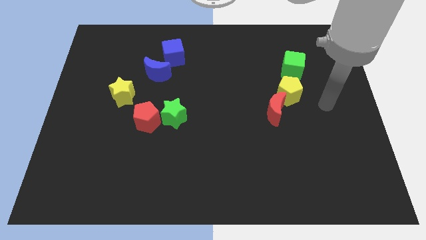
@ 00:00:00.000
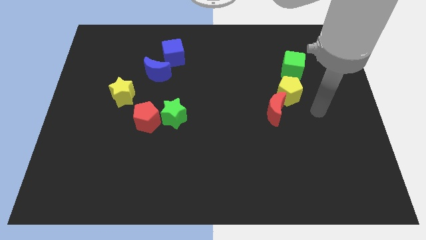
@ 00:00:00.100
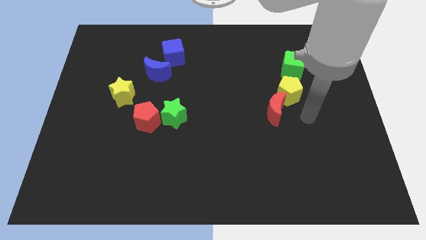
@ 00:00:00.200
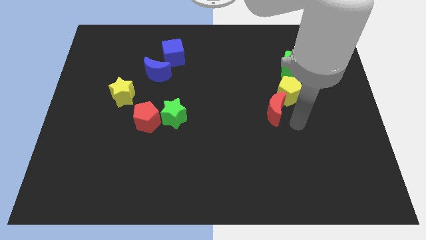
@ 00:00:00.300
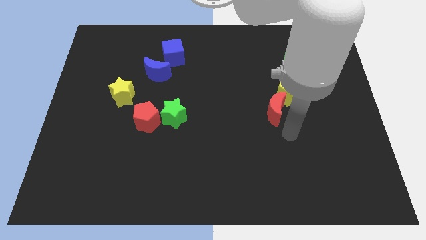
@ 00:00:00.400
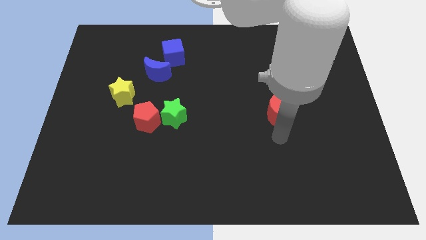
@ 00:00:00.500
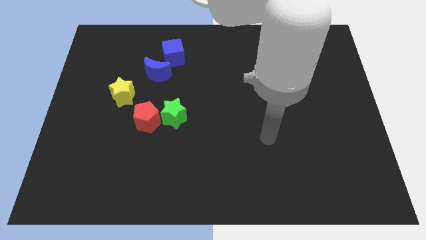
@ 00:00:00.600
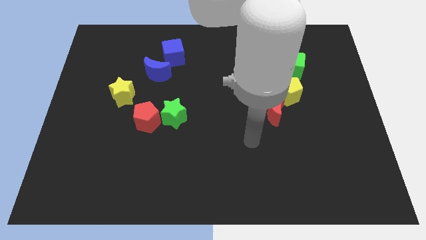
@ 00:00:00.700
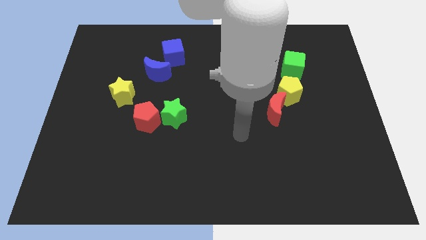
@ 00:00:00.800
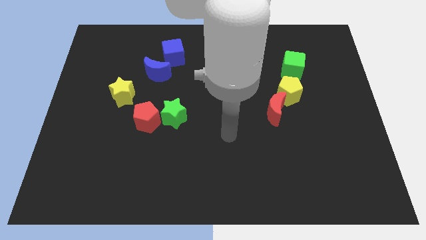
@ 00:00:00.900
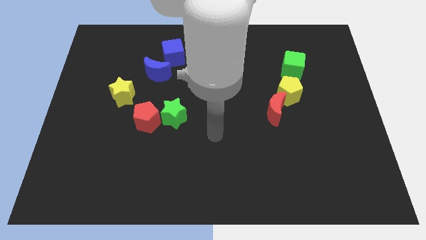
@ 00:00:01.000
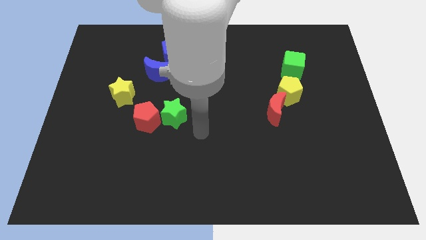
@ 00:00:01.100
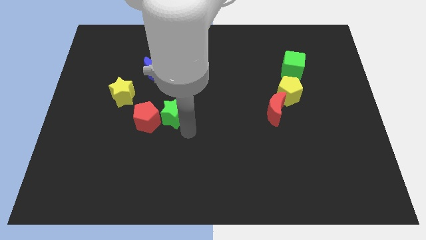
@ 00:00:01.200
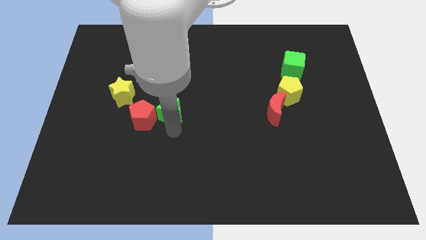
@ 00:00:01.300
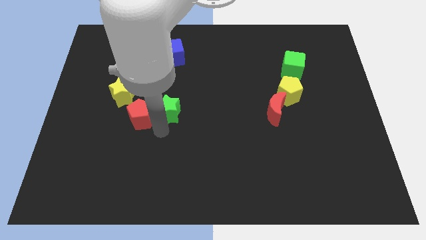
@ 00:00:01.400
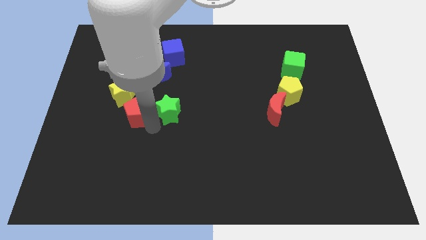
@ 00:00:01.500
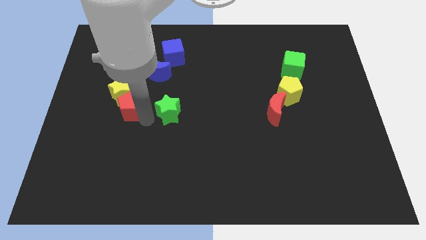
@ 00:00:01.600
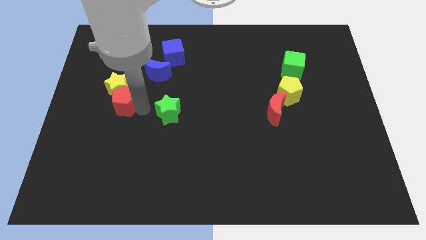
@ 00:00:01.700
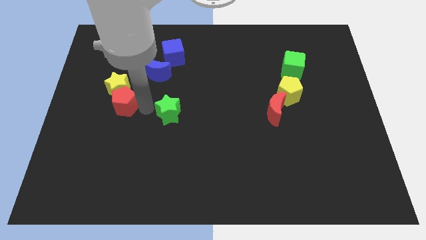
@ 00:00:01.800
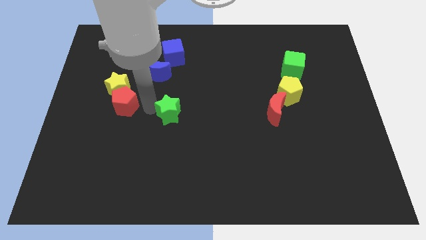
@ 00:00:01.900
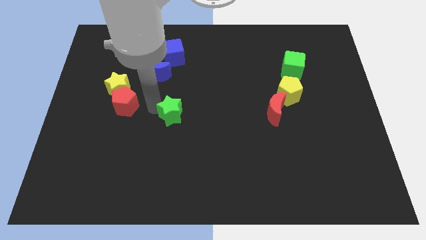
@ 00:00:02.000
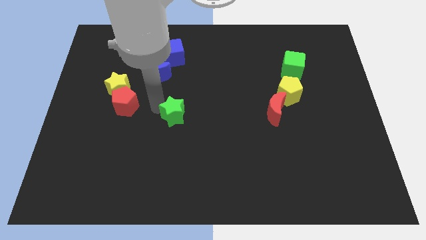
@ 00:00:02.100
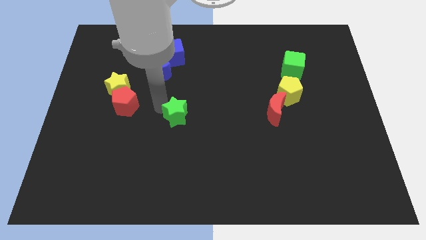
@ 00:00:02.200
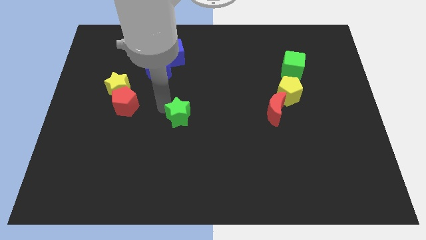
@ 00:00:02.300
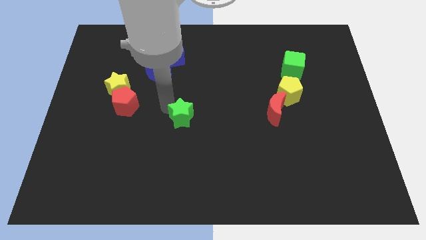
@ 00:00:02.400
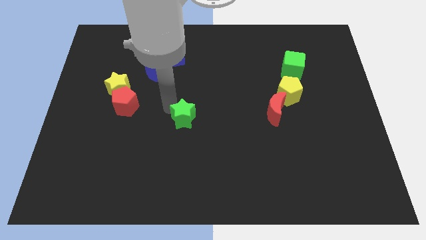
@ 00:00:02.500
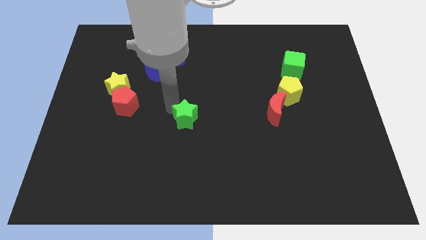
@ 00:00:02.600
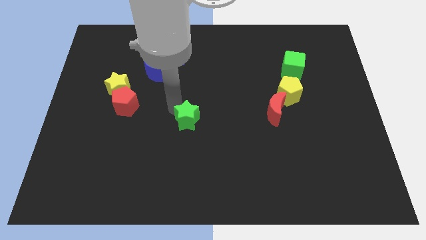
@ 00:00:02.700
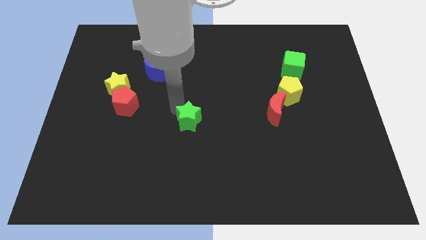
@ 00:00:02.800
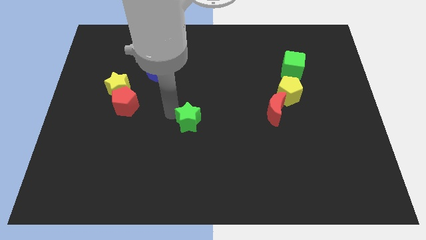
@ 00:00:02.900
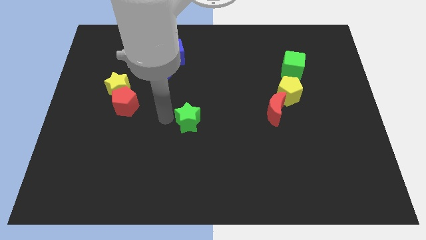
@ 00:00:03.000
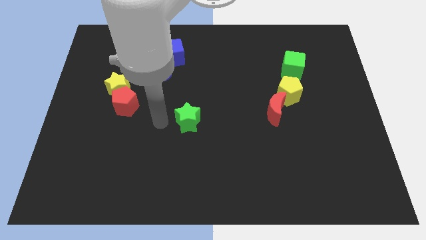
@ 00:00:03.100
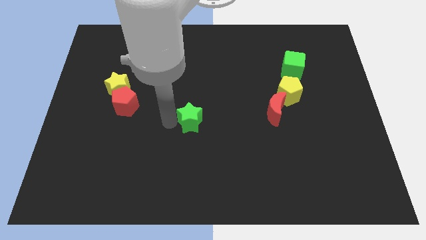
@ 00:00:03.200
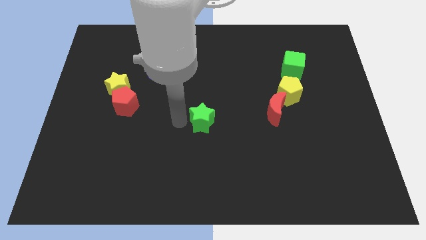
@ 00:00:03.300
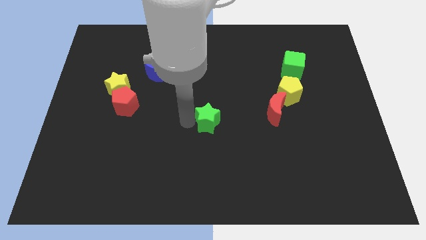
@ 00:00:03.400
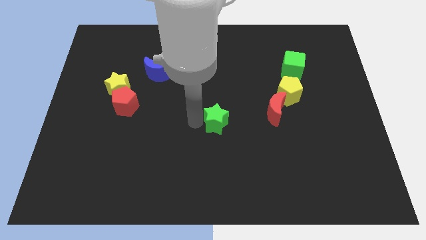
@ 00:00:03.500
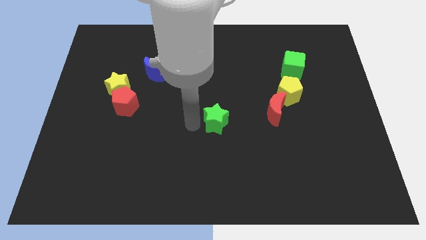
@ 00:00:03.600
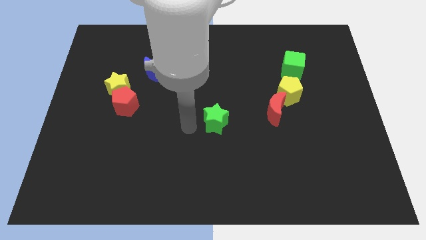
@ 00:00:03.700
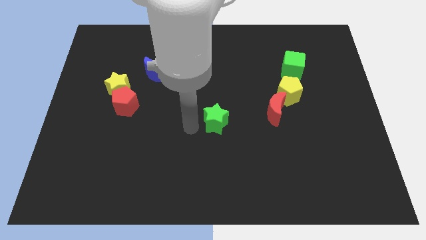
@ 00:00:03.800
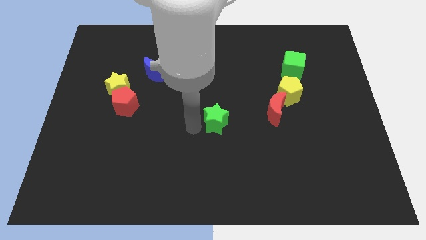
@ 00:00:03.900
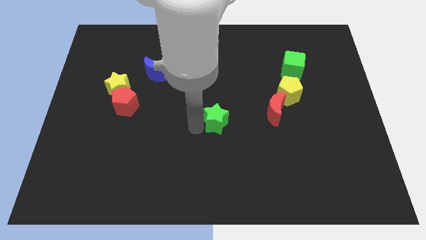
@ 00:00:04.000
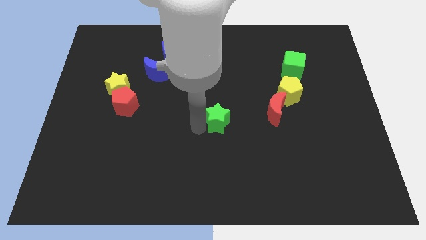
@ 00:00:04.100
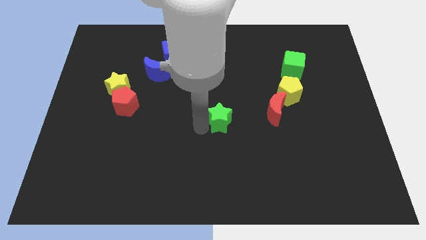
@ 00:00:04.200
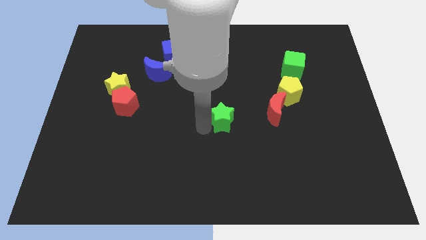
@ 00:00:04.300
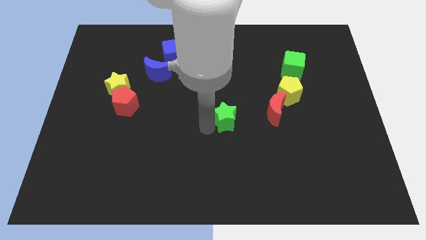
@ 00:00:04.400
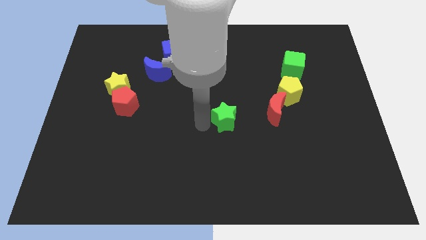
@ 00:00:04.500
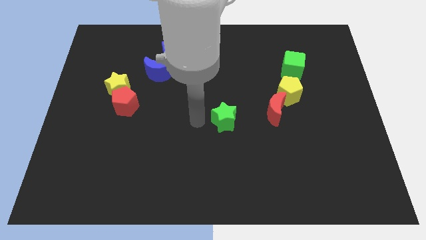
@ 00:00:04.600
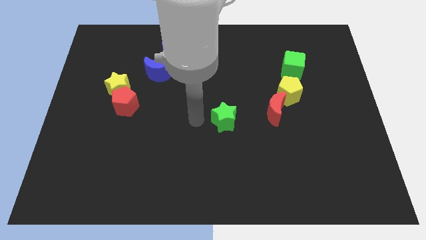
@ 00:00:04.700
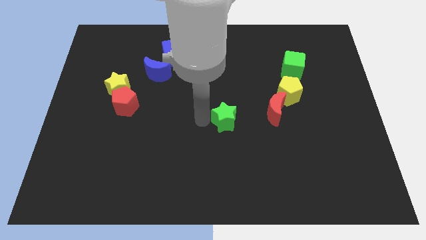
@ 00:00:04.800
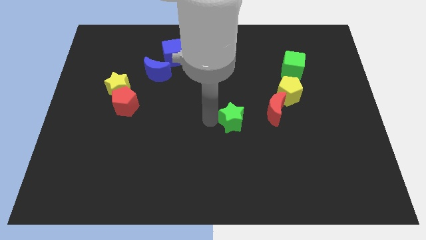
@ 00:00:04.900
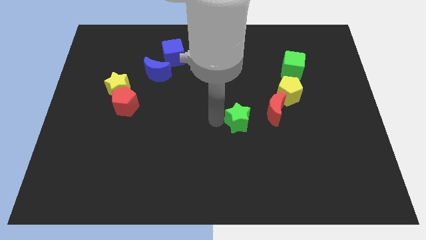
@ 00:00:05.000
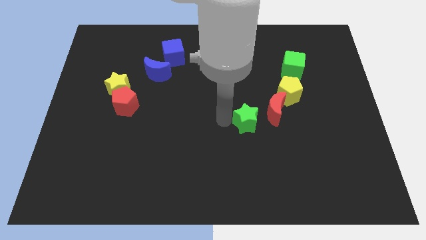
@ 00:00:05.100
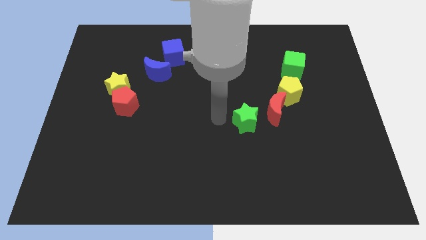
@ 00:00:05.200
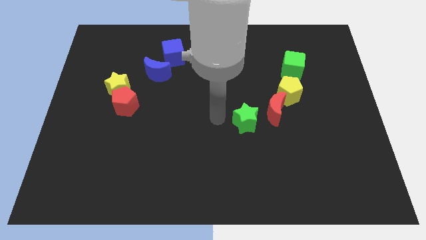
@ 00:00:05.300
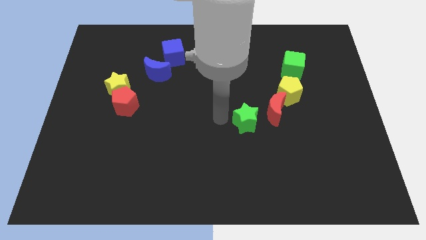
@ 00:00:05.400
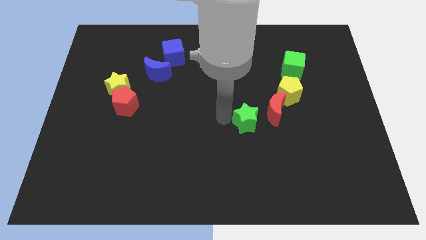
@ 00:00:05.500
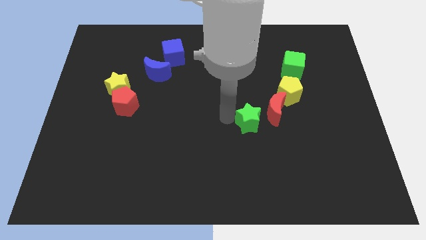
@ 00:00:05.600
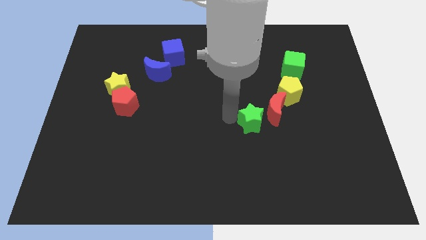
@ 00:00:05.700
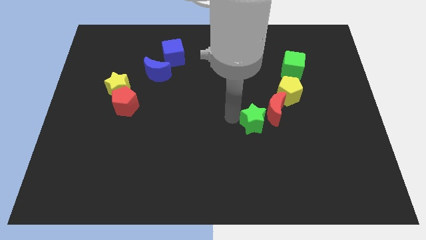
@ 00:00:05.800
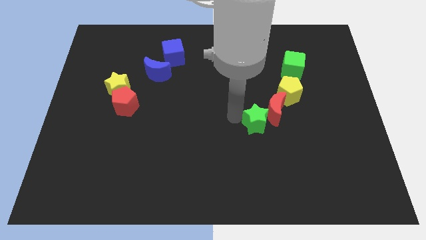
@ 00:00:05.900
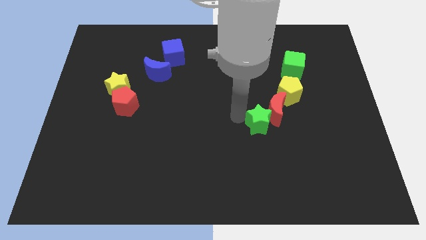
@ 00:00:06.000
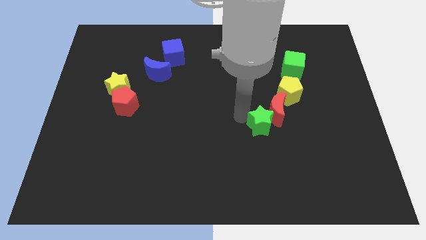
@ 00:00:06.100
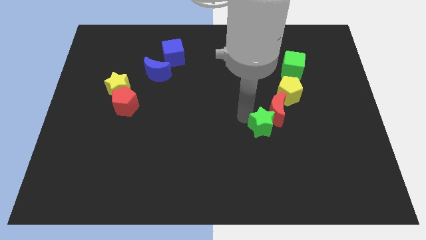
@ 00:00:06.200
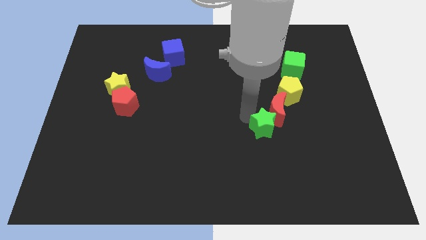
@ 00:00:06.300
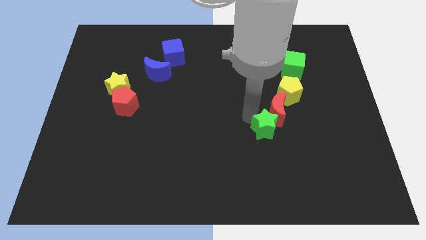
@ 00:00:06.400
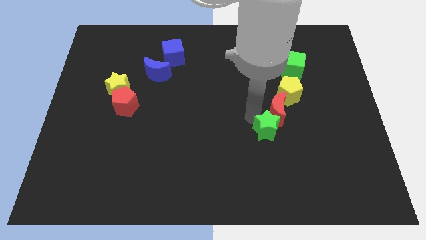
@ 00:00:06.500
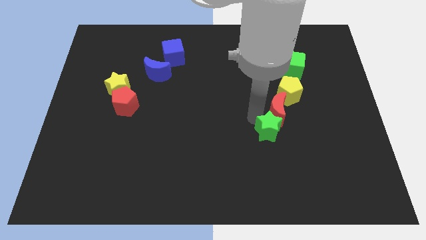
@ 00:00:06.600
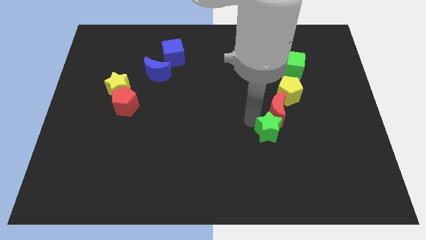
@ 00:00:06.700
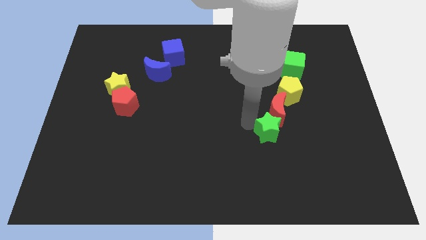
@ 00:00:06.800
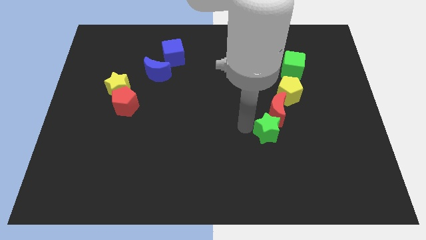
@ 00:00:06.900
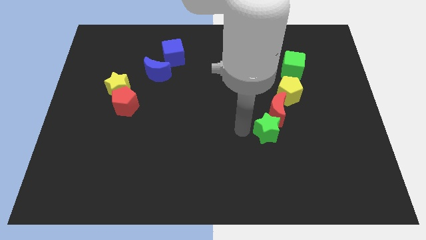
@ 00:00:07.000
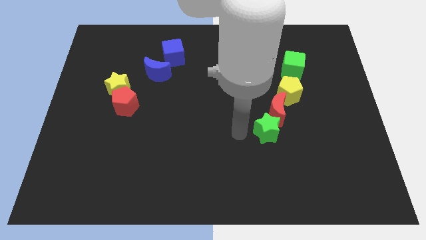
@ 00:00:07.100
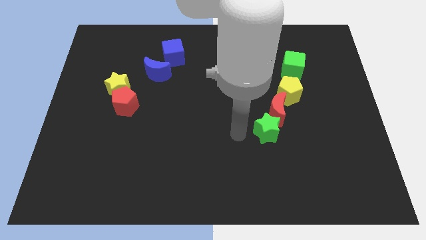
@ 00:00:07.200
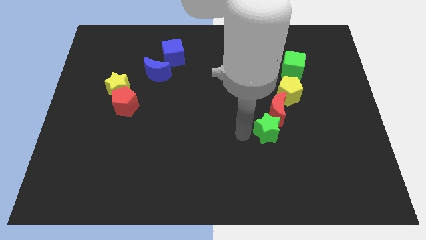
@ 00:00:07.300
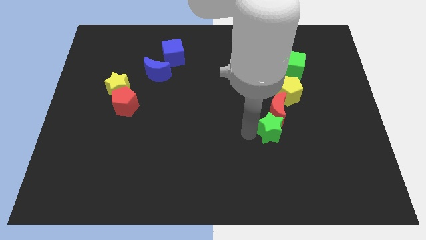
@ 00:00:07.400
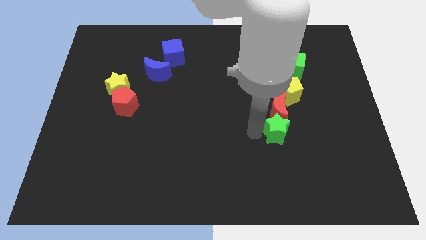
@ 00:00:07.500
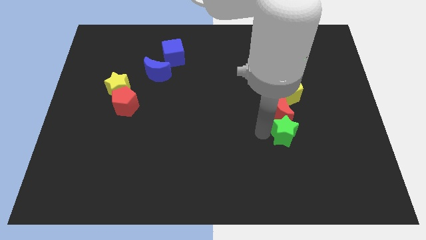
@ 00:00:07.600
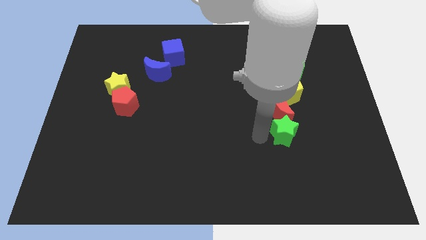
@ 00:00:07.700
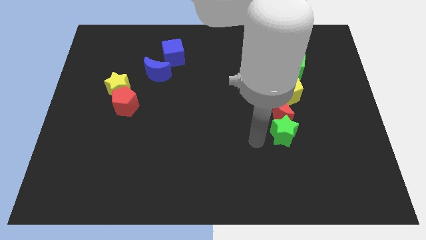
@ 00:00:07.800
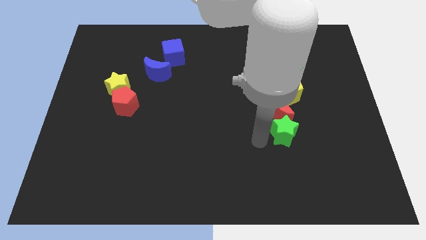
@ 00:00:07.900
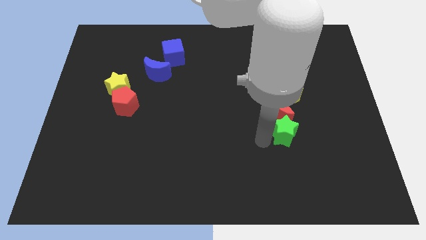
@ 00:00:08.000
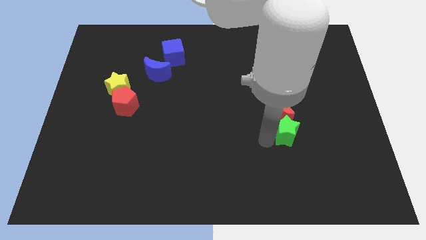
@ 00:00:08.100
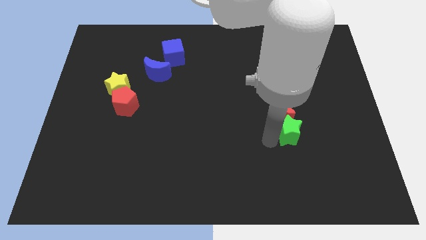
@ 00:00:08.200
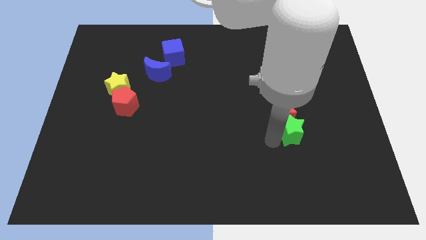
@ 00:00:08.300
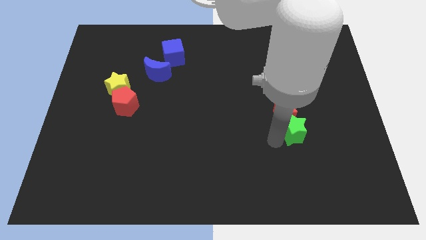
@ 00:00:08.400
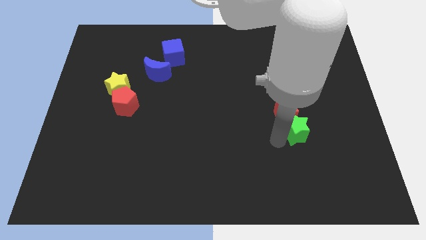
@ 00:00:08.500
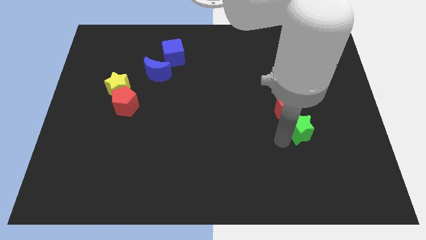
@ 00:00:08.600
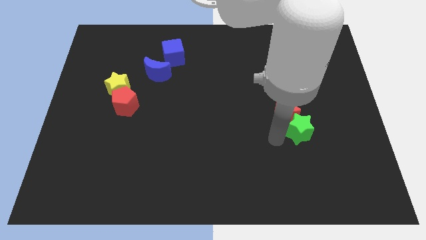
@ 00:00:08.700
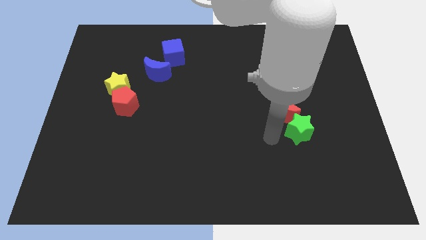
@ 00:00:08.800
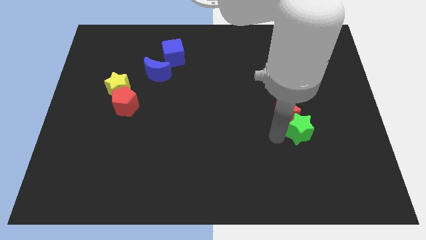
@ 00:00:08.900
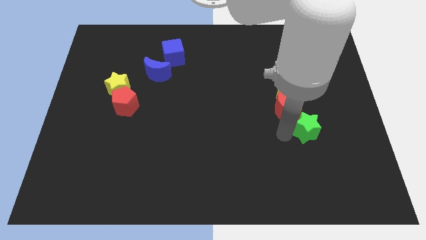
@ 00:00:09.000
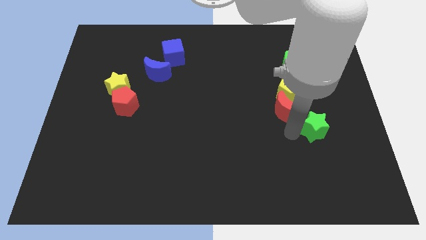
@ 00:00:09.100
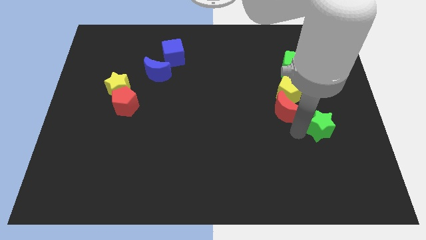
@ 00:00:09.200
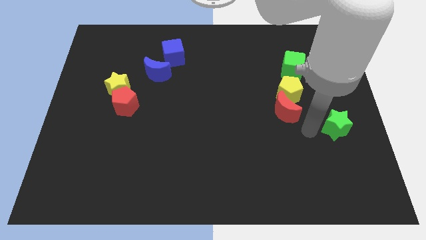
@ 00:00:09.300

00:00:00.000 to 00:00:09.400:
put the green star to the right side of the board
